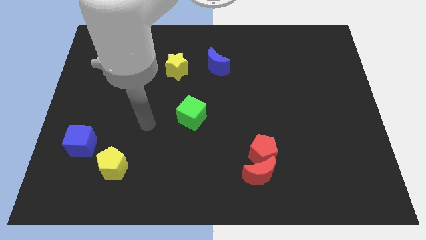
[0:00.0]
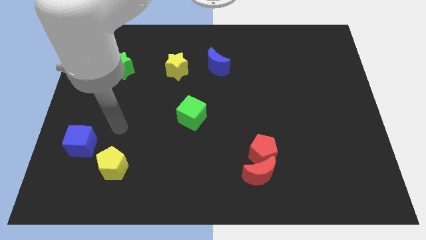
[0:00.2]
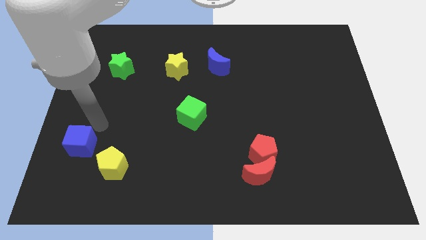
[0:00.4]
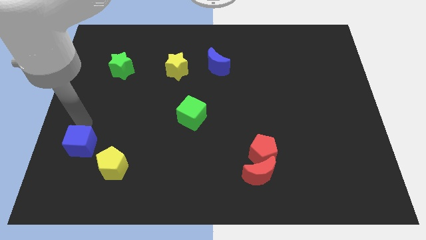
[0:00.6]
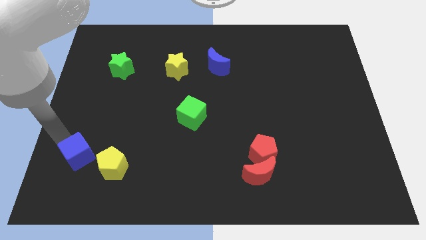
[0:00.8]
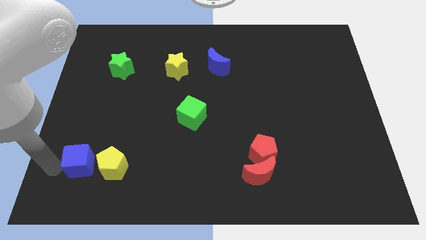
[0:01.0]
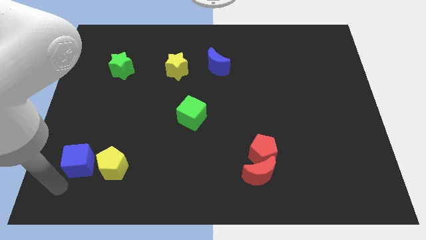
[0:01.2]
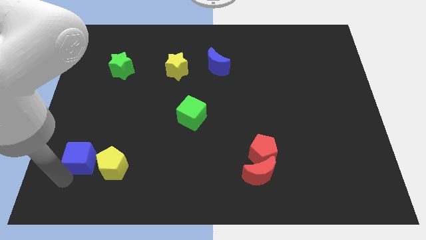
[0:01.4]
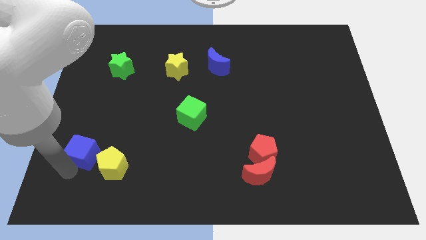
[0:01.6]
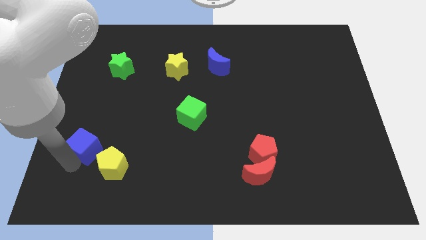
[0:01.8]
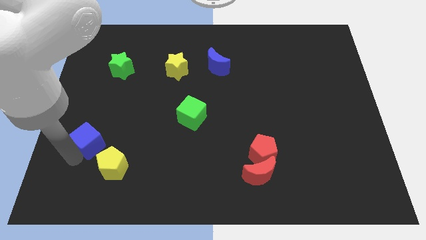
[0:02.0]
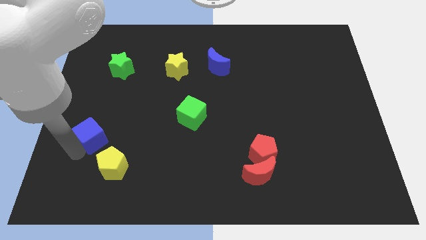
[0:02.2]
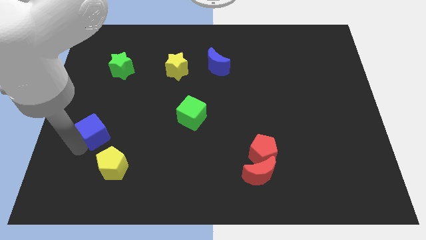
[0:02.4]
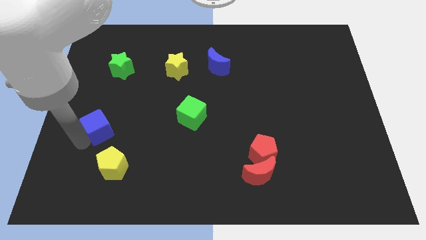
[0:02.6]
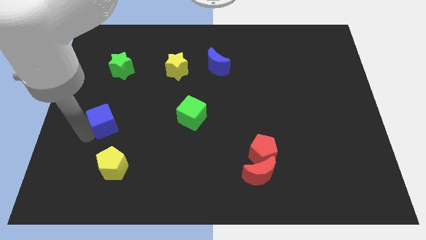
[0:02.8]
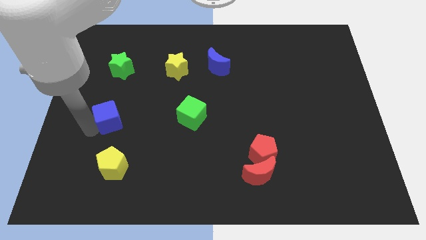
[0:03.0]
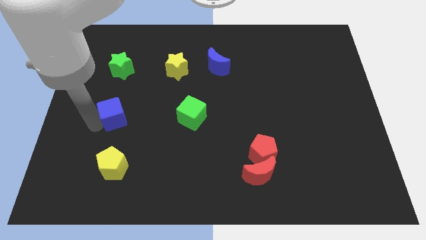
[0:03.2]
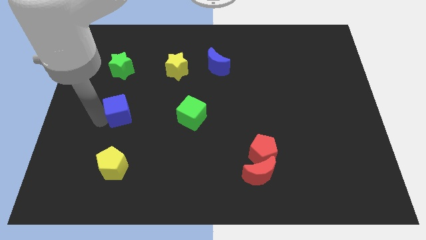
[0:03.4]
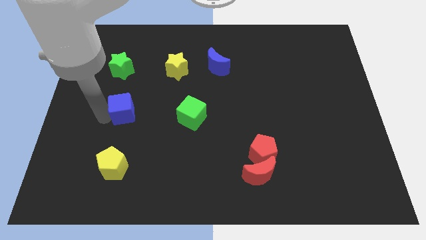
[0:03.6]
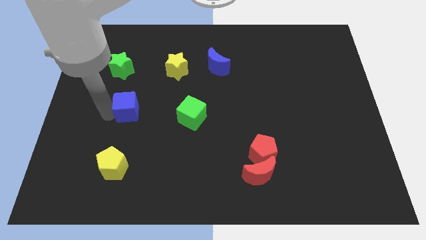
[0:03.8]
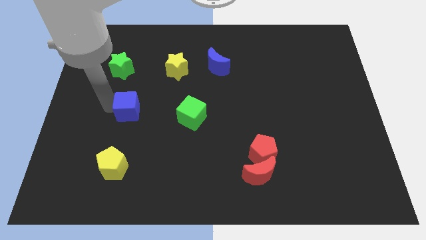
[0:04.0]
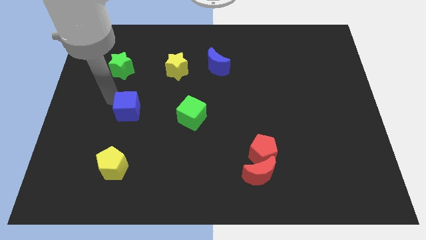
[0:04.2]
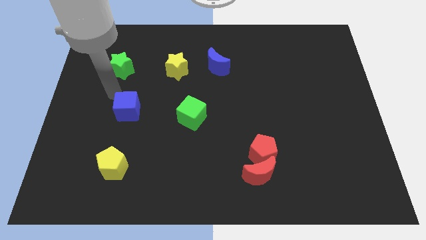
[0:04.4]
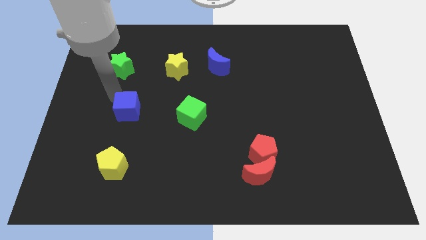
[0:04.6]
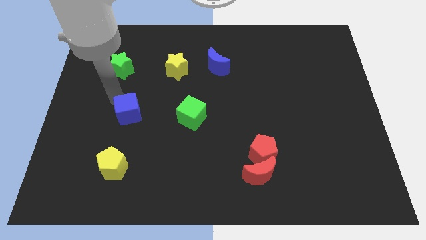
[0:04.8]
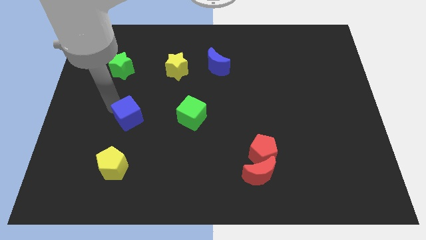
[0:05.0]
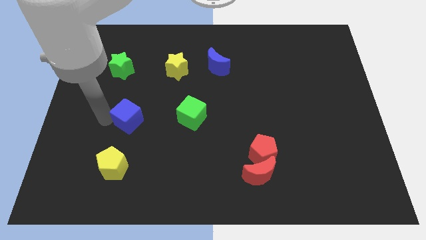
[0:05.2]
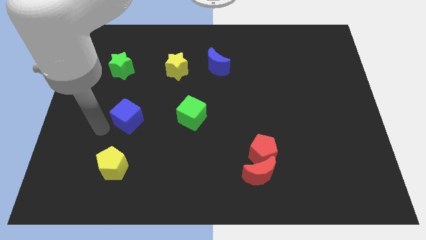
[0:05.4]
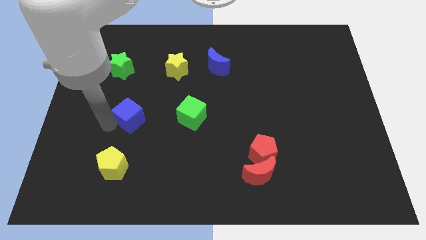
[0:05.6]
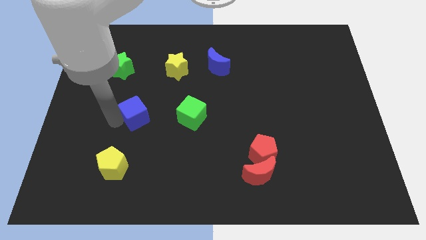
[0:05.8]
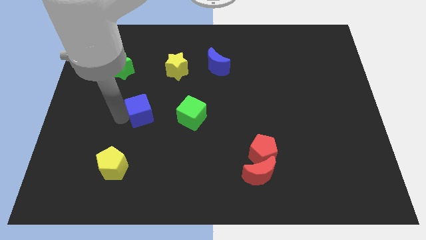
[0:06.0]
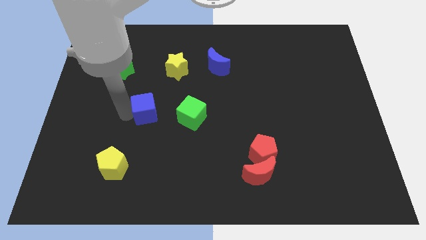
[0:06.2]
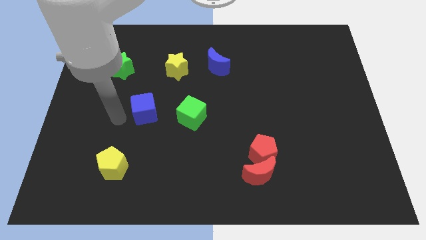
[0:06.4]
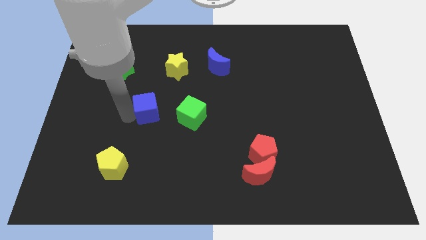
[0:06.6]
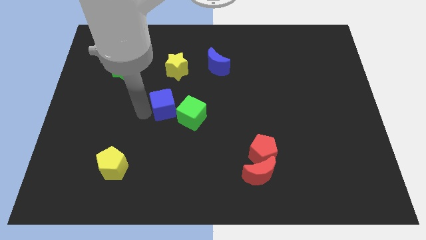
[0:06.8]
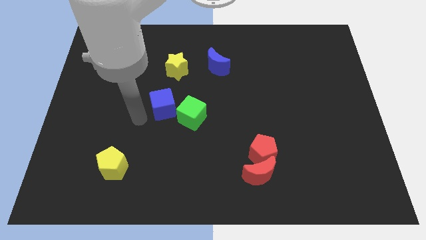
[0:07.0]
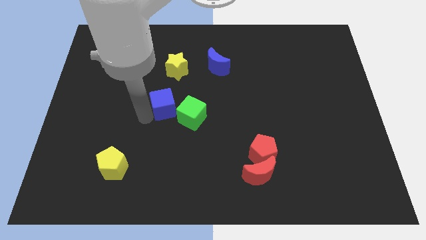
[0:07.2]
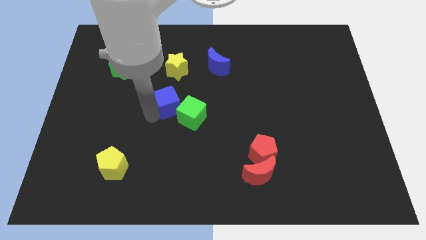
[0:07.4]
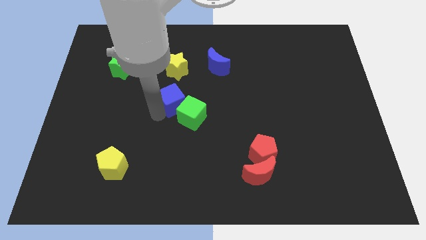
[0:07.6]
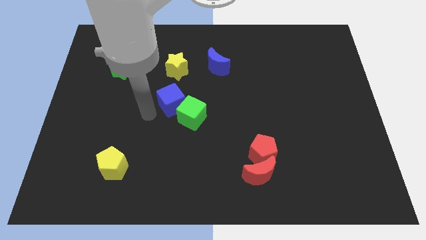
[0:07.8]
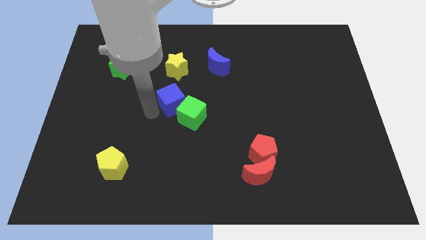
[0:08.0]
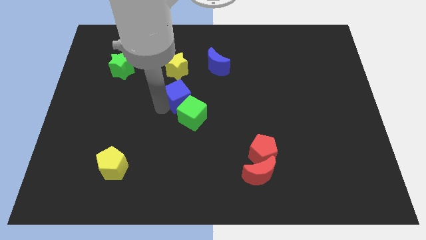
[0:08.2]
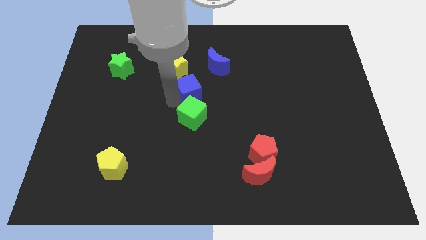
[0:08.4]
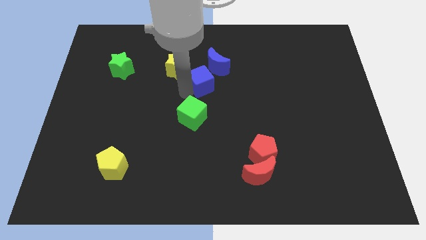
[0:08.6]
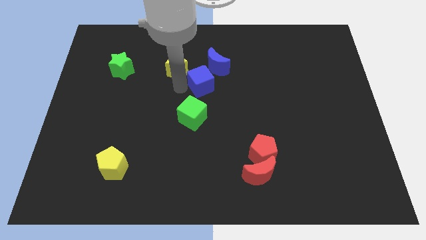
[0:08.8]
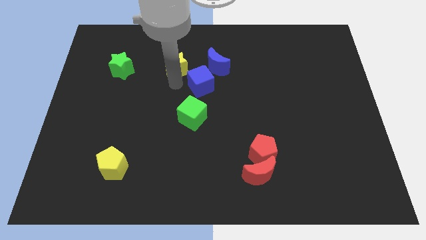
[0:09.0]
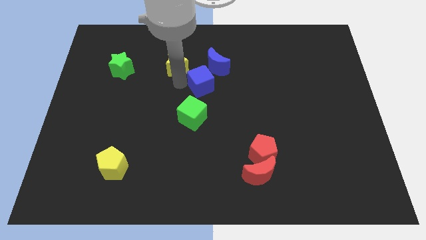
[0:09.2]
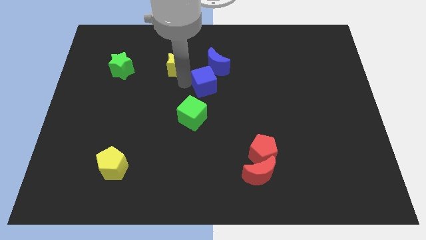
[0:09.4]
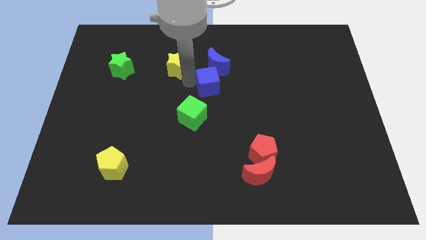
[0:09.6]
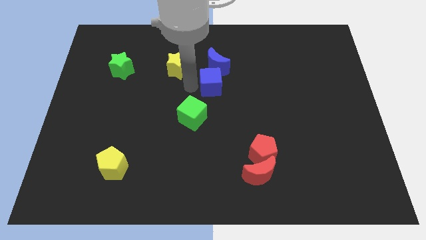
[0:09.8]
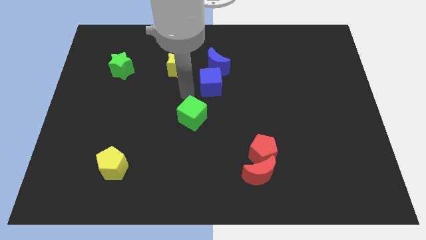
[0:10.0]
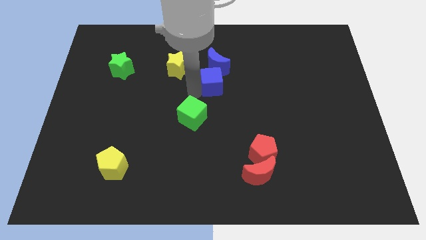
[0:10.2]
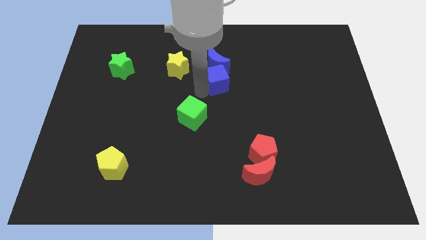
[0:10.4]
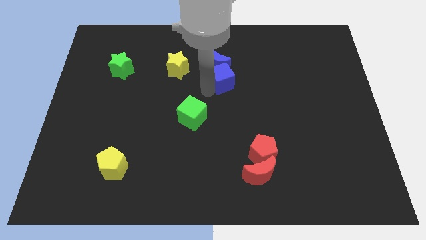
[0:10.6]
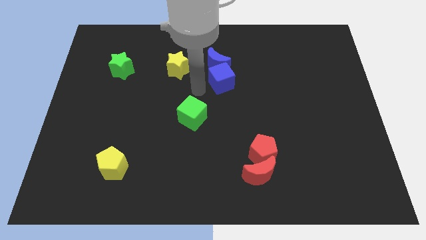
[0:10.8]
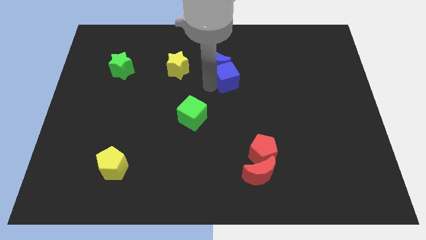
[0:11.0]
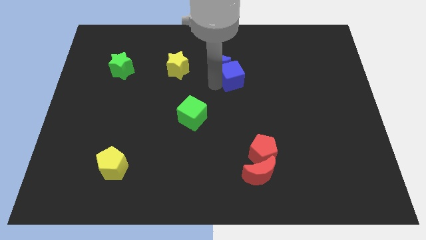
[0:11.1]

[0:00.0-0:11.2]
push the blue cube to the right side of the blue moon

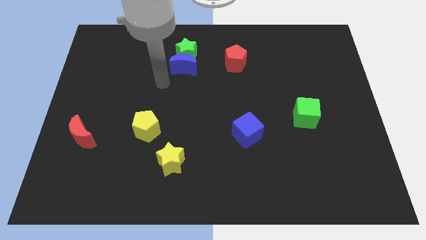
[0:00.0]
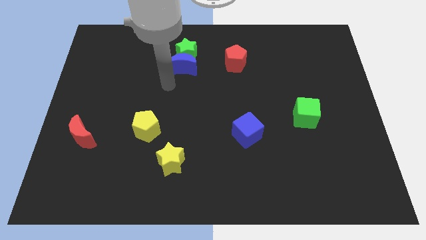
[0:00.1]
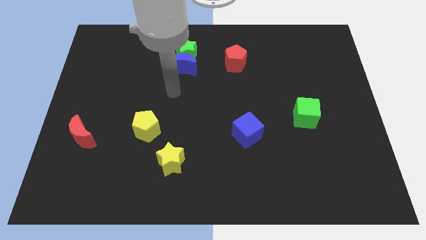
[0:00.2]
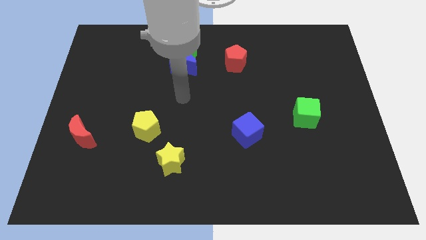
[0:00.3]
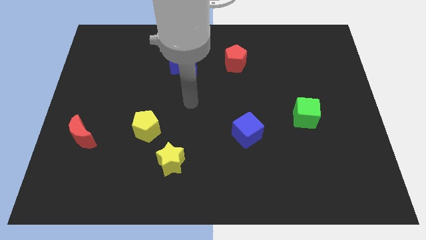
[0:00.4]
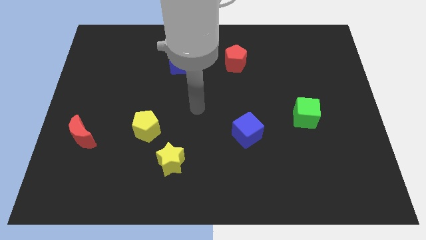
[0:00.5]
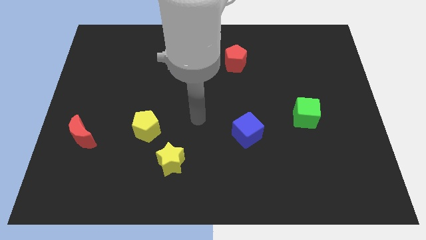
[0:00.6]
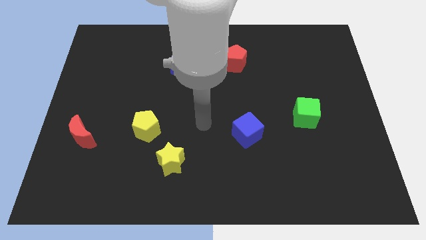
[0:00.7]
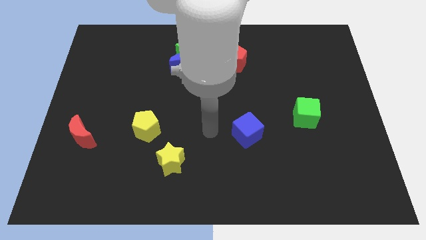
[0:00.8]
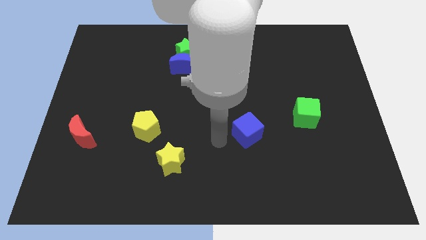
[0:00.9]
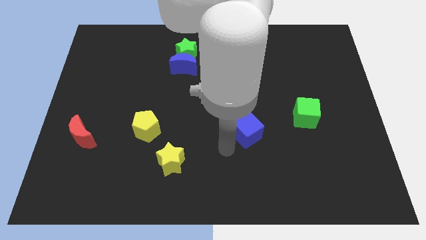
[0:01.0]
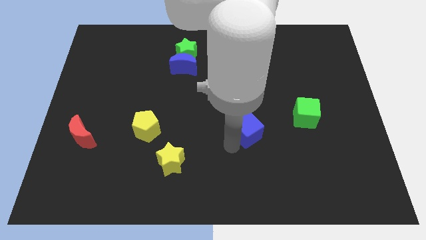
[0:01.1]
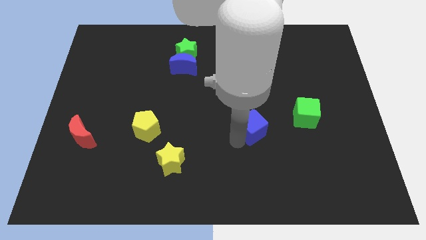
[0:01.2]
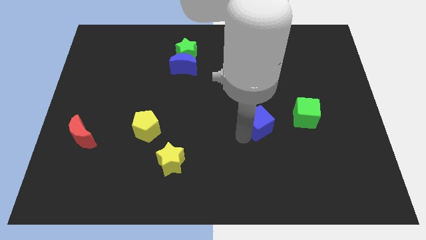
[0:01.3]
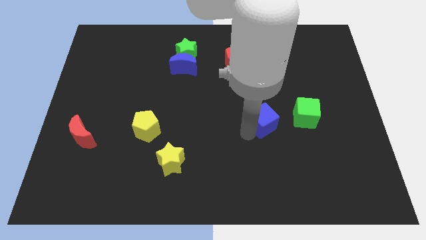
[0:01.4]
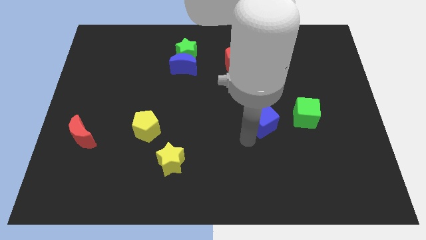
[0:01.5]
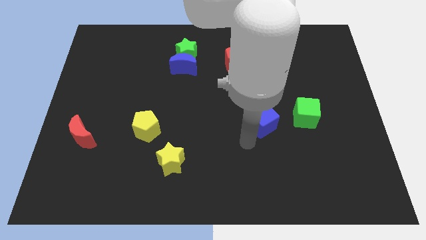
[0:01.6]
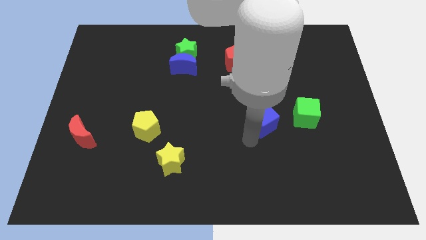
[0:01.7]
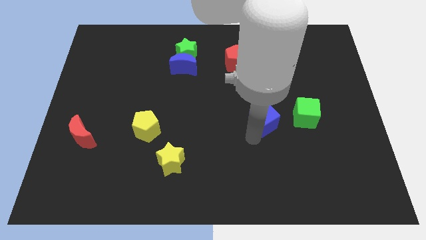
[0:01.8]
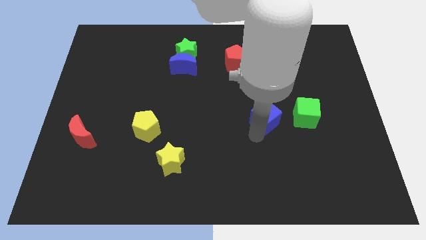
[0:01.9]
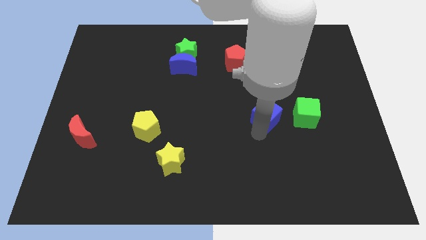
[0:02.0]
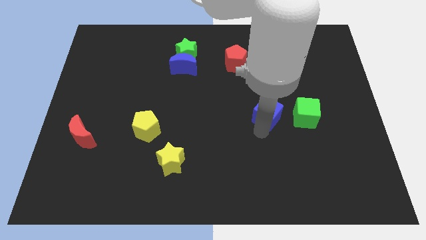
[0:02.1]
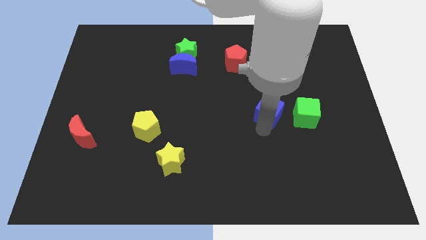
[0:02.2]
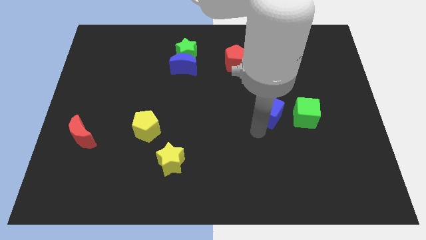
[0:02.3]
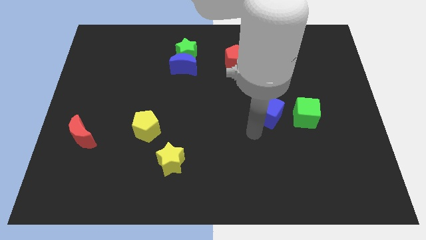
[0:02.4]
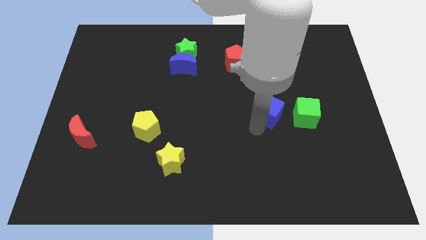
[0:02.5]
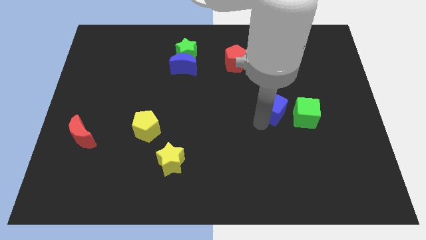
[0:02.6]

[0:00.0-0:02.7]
push the blue cube to the top left of the green cube
